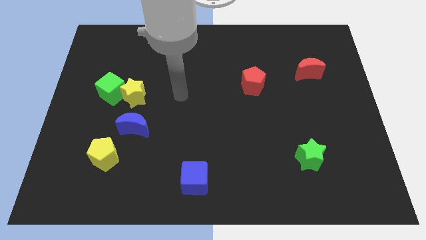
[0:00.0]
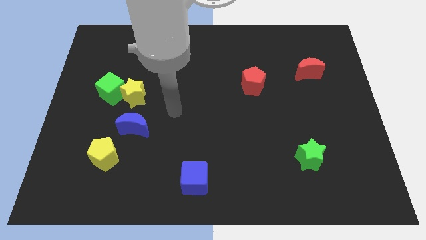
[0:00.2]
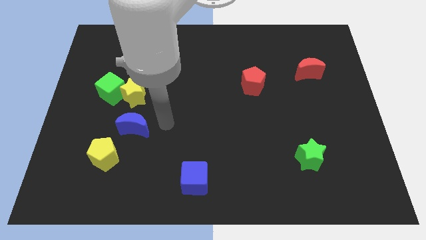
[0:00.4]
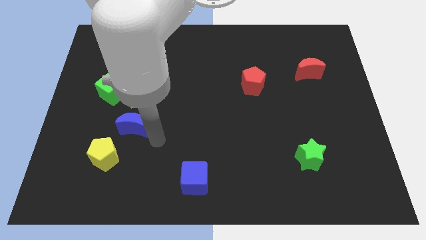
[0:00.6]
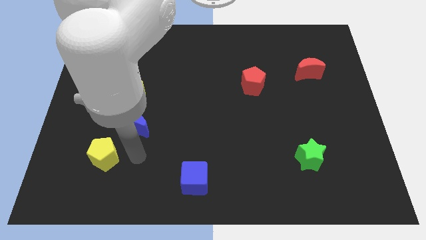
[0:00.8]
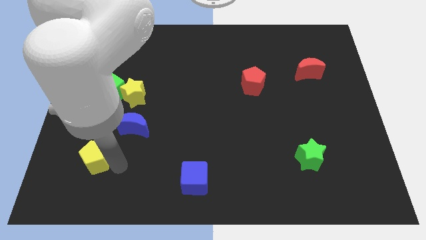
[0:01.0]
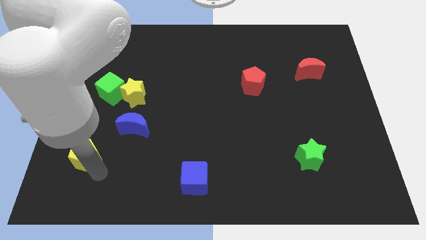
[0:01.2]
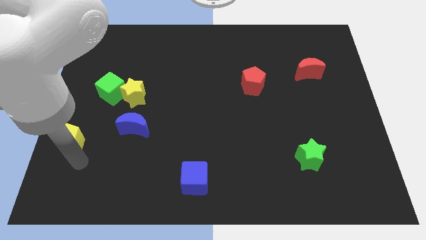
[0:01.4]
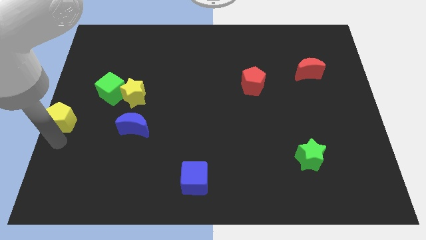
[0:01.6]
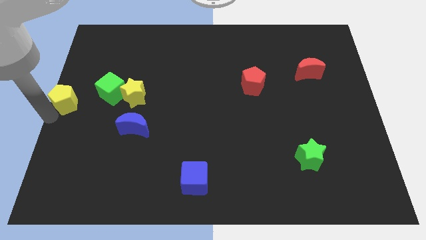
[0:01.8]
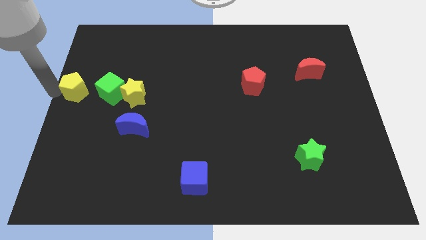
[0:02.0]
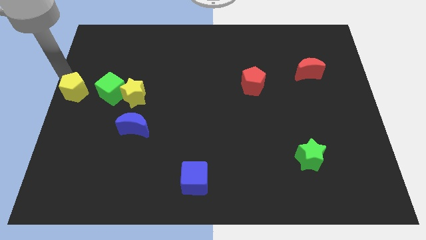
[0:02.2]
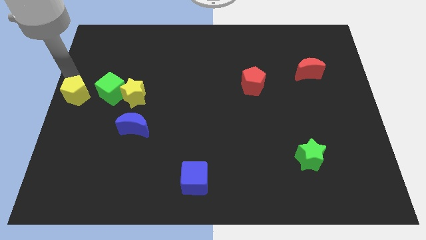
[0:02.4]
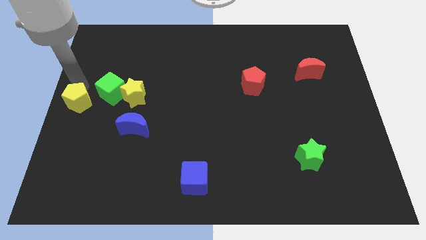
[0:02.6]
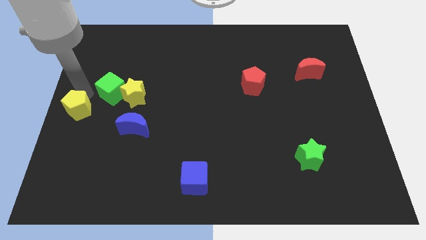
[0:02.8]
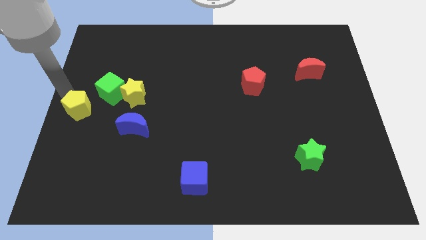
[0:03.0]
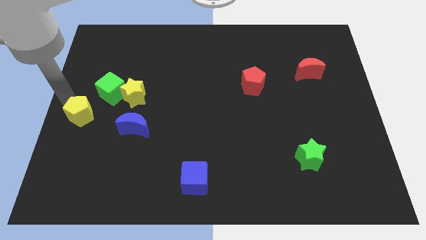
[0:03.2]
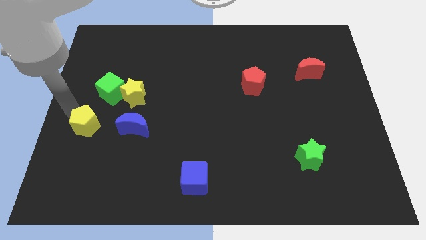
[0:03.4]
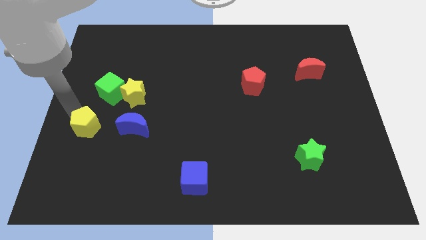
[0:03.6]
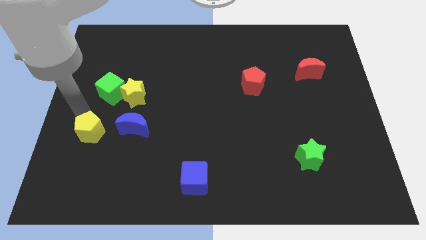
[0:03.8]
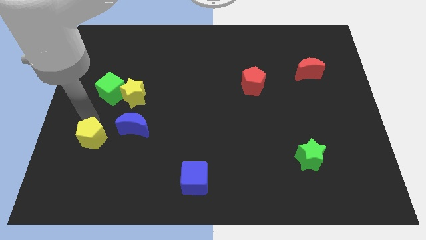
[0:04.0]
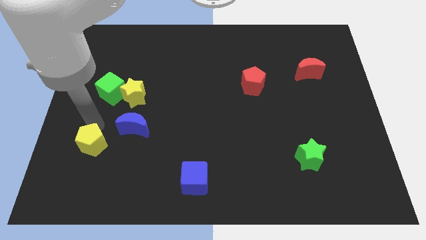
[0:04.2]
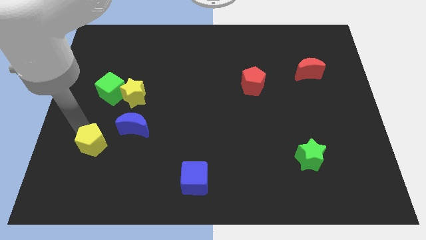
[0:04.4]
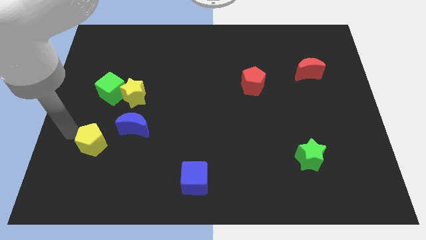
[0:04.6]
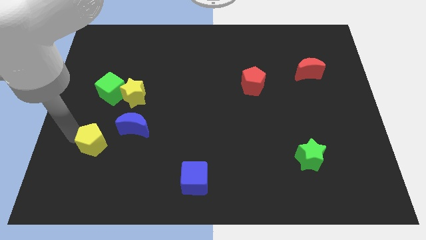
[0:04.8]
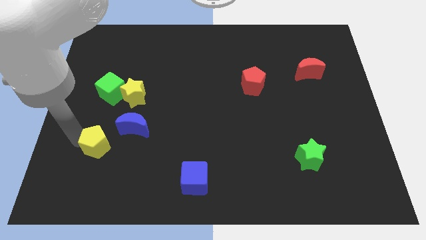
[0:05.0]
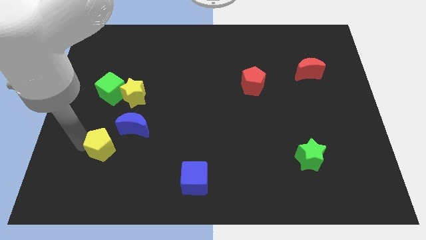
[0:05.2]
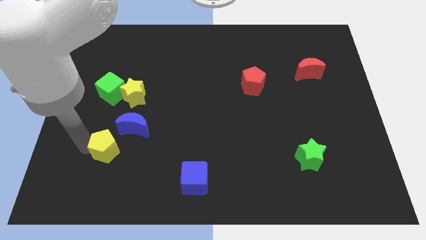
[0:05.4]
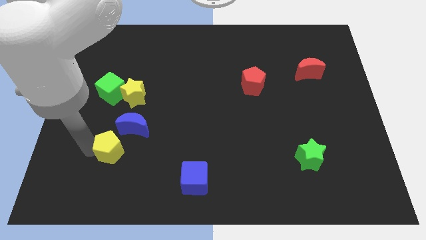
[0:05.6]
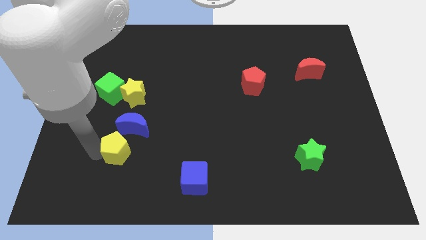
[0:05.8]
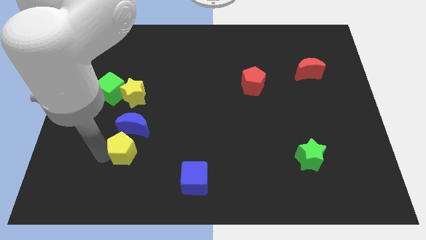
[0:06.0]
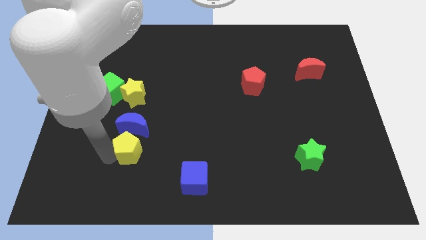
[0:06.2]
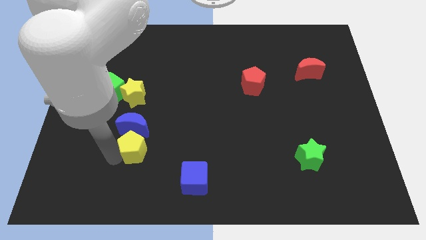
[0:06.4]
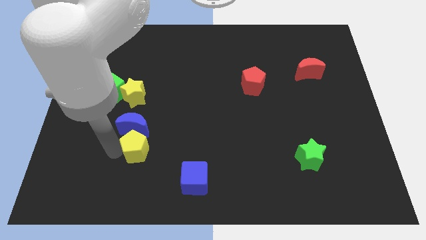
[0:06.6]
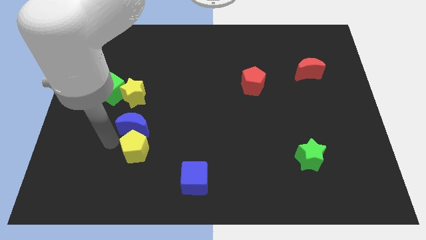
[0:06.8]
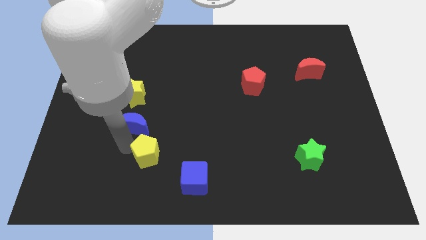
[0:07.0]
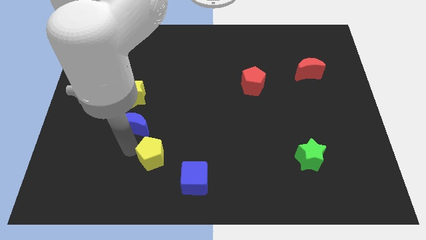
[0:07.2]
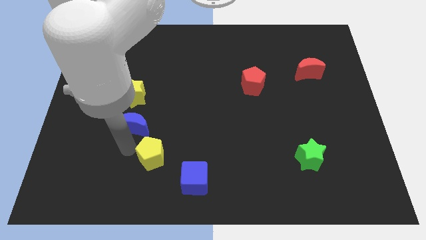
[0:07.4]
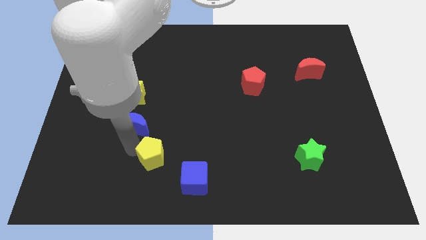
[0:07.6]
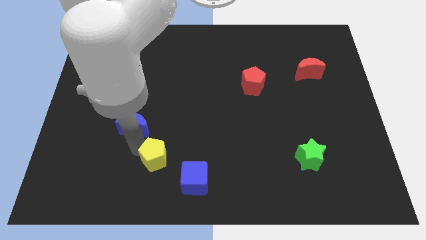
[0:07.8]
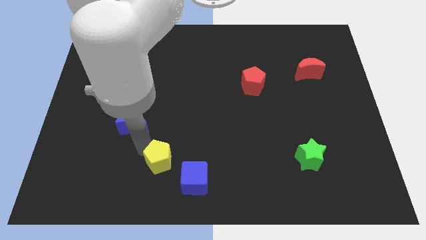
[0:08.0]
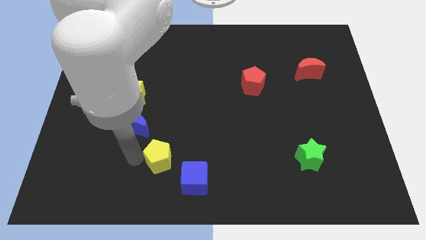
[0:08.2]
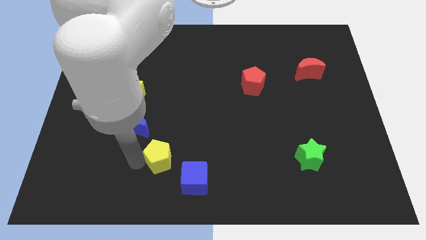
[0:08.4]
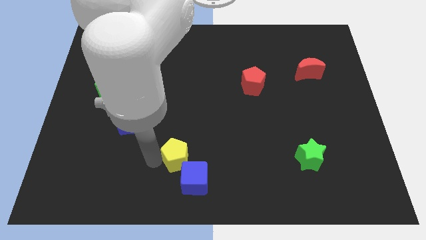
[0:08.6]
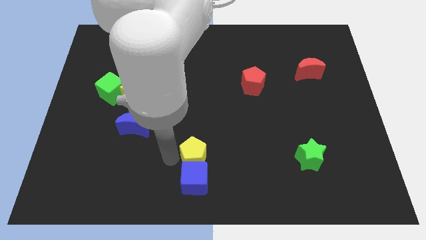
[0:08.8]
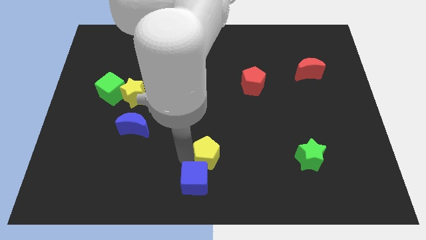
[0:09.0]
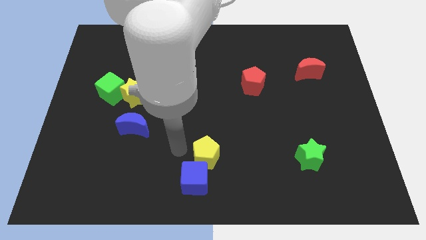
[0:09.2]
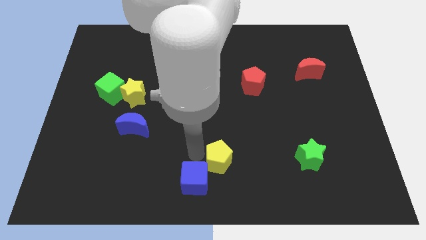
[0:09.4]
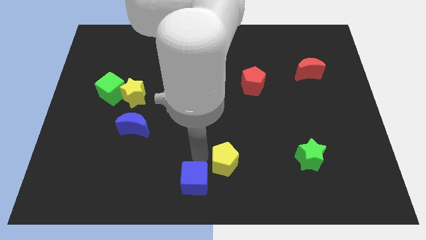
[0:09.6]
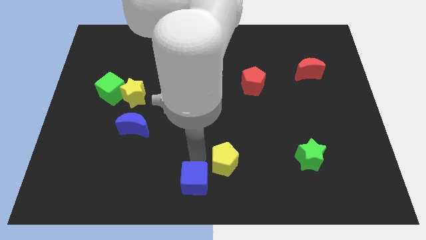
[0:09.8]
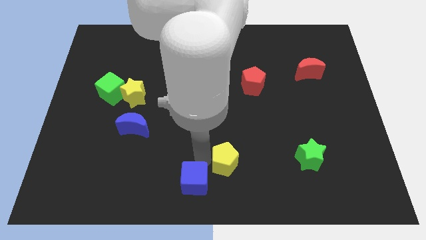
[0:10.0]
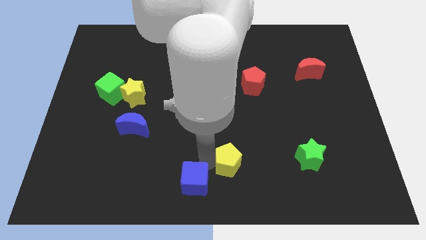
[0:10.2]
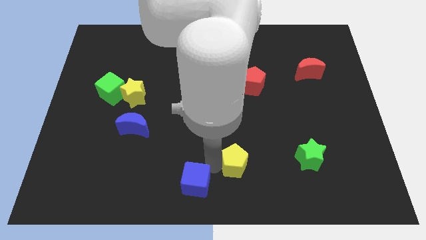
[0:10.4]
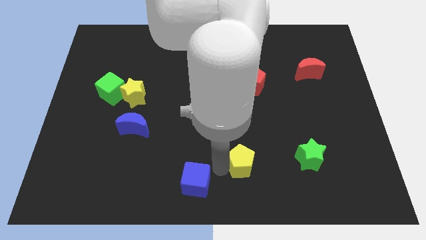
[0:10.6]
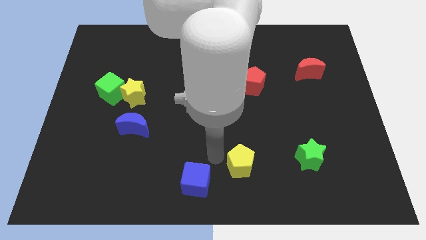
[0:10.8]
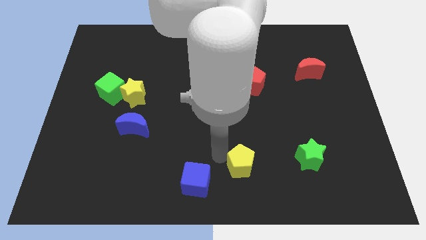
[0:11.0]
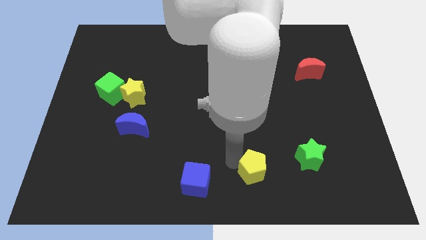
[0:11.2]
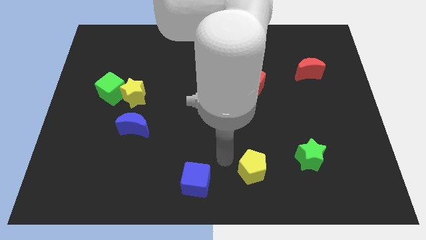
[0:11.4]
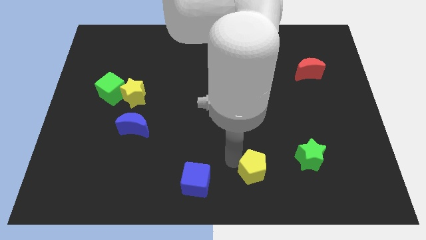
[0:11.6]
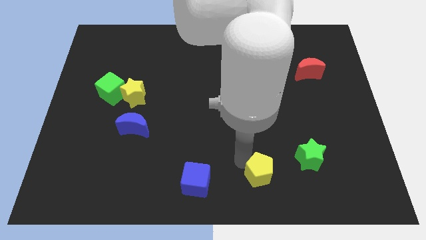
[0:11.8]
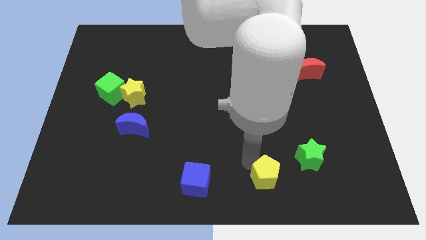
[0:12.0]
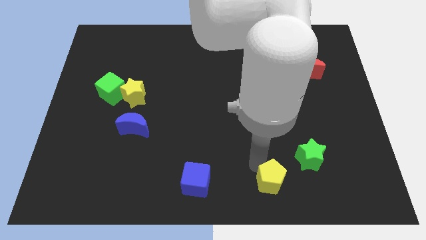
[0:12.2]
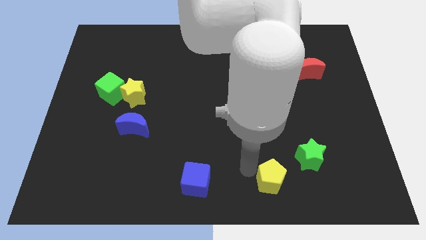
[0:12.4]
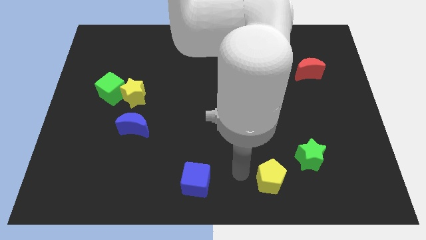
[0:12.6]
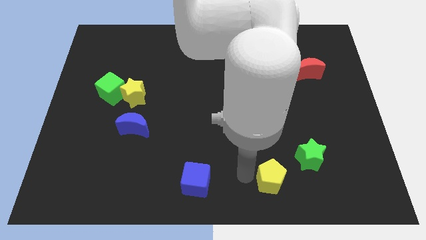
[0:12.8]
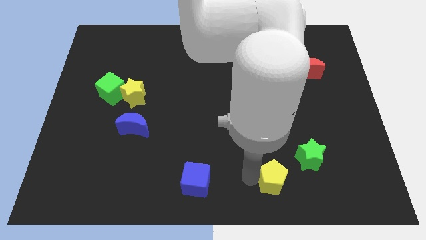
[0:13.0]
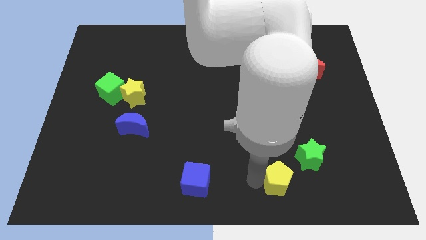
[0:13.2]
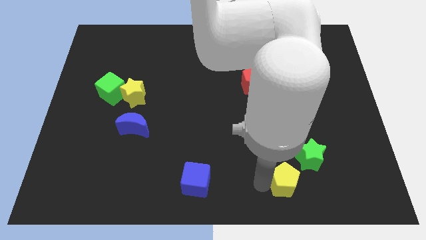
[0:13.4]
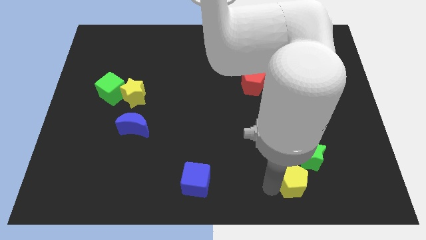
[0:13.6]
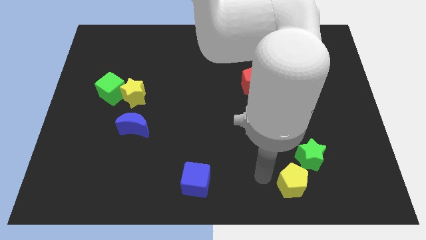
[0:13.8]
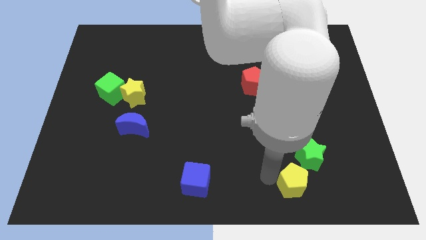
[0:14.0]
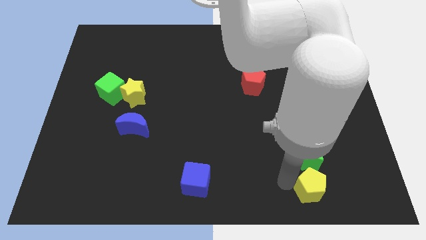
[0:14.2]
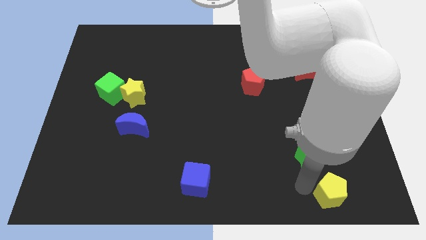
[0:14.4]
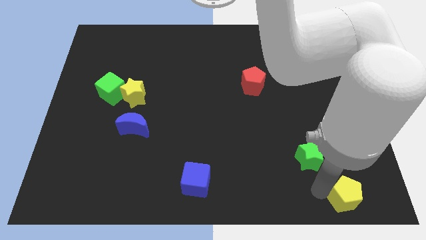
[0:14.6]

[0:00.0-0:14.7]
put the yellow pentagon to the lower right corner
